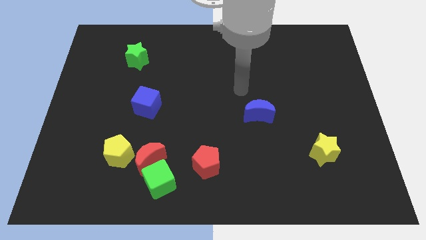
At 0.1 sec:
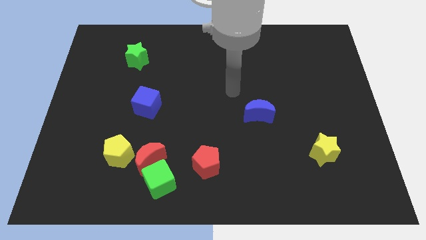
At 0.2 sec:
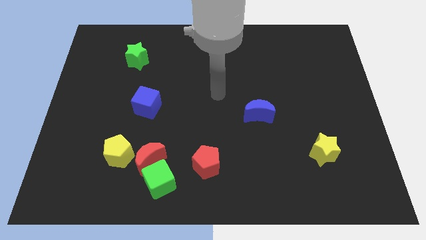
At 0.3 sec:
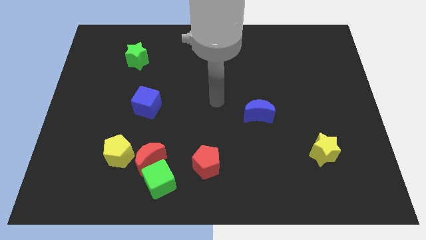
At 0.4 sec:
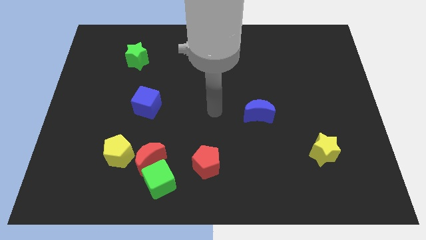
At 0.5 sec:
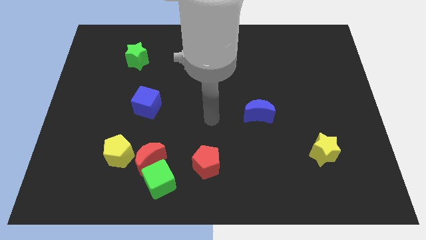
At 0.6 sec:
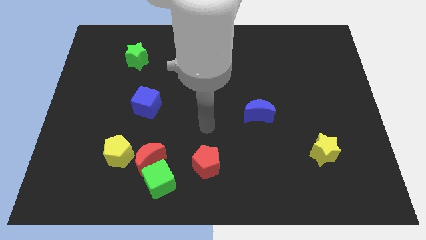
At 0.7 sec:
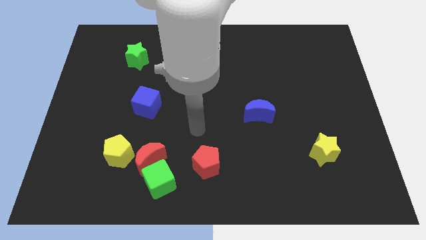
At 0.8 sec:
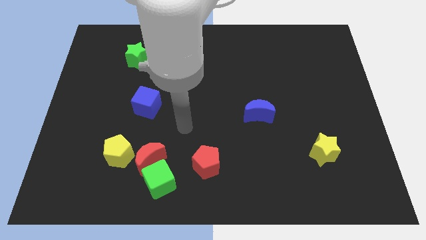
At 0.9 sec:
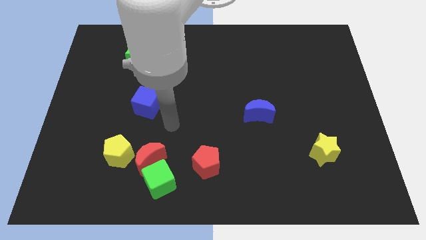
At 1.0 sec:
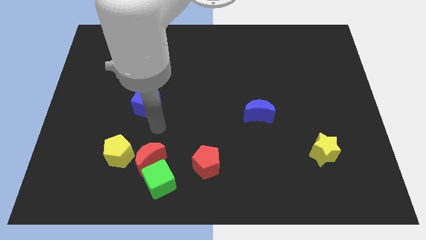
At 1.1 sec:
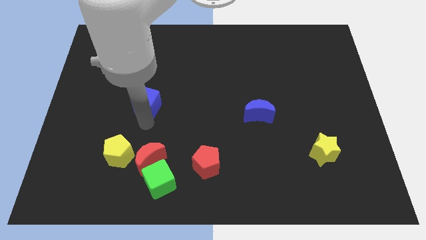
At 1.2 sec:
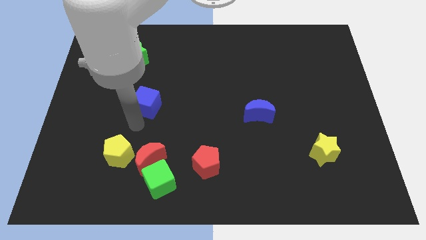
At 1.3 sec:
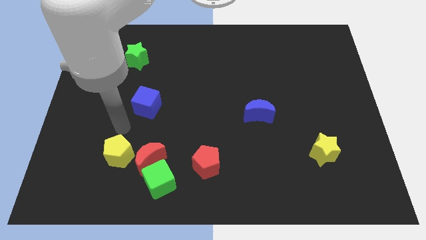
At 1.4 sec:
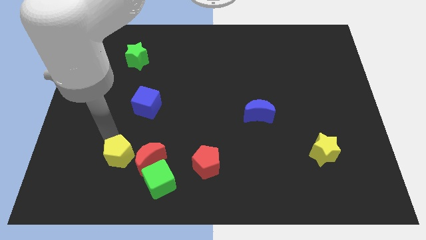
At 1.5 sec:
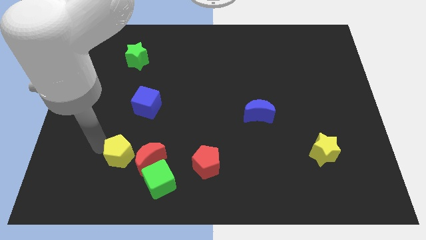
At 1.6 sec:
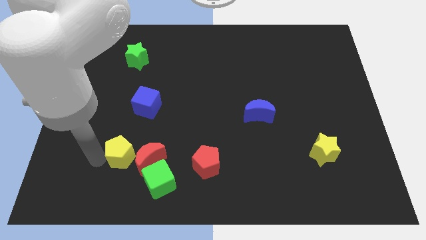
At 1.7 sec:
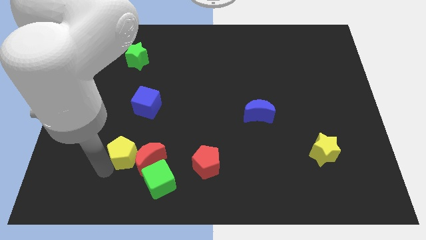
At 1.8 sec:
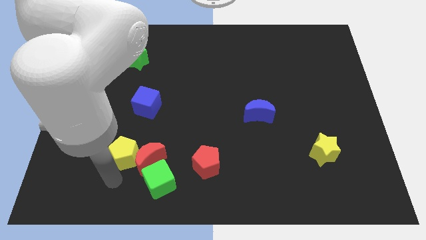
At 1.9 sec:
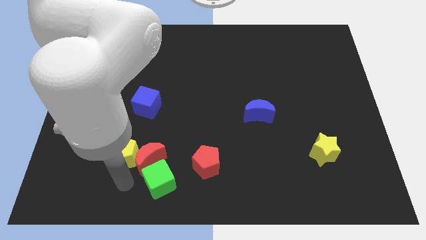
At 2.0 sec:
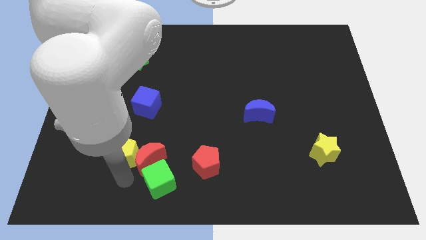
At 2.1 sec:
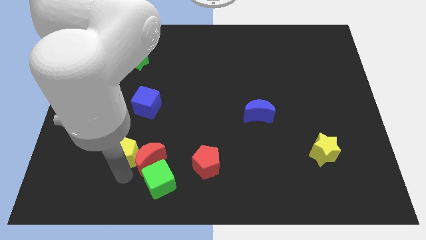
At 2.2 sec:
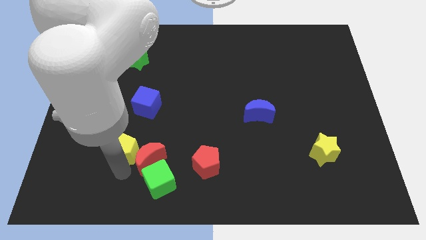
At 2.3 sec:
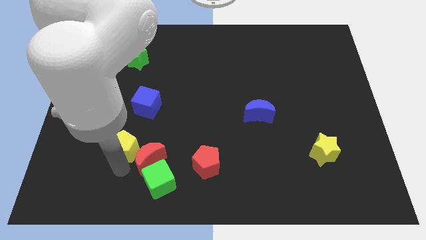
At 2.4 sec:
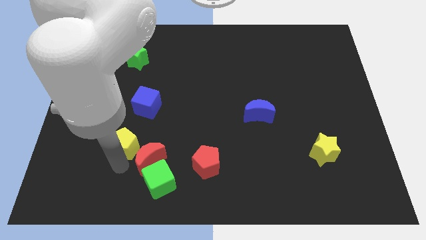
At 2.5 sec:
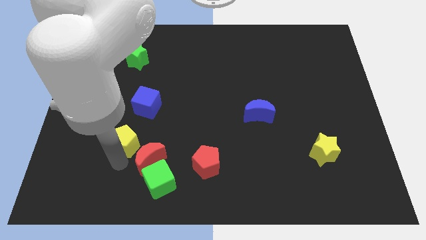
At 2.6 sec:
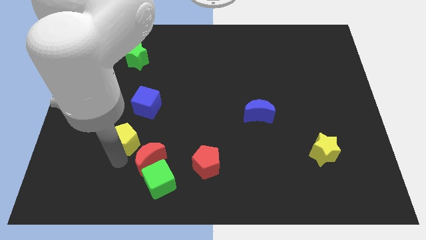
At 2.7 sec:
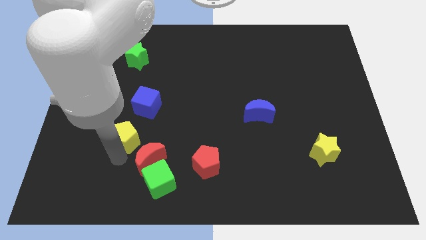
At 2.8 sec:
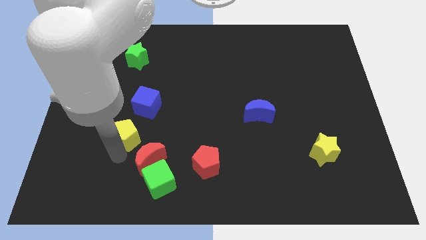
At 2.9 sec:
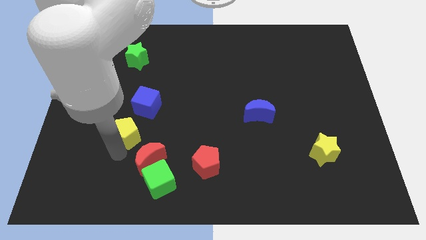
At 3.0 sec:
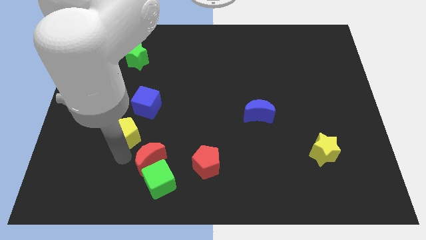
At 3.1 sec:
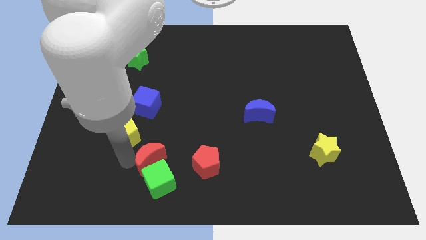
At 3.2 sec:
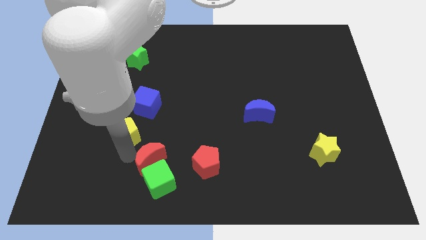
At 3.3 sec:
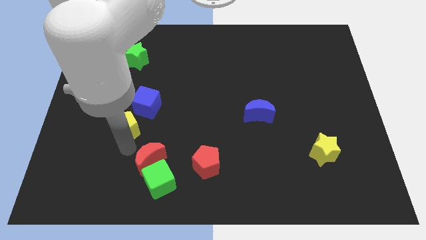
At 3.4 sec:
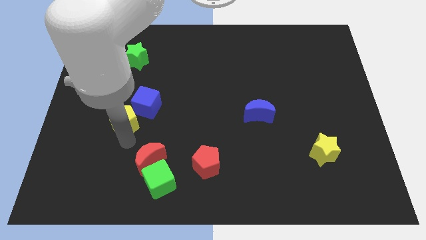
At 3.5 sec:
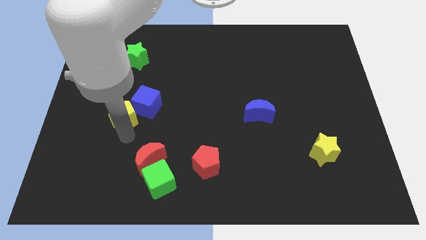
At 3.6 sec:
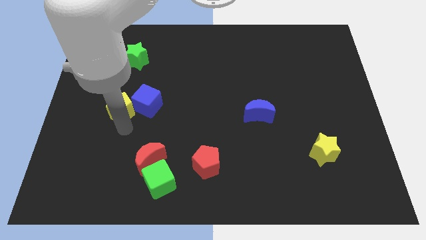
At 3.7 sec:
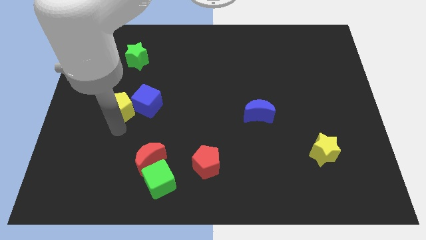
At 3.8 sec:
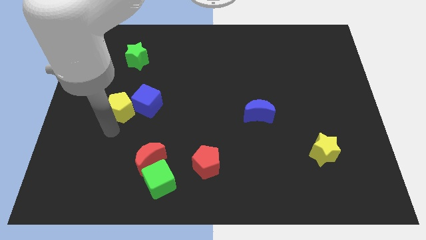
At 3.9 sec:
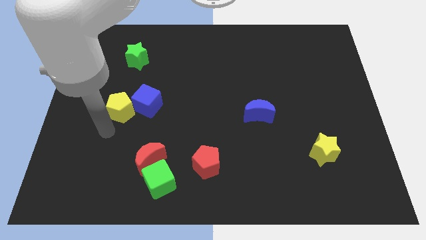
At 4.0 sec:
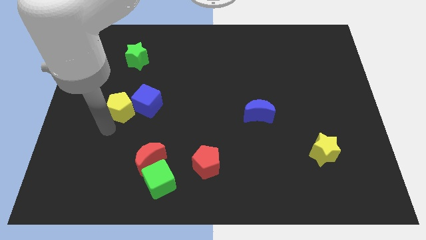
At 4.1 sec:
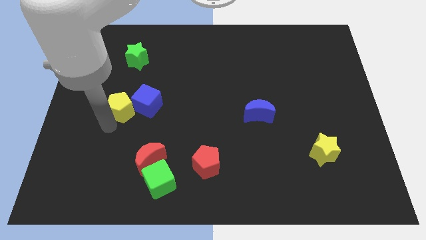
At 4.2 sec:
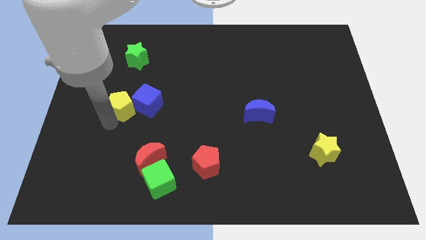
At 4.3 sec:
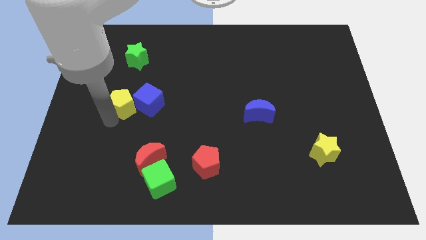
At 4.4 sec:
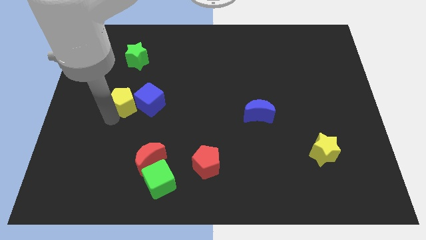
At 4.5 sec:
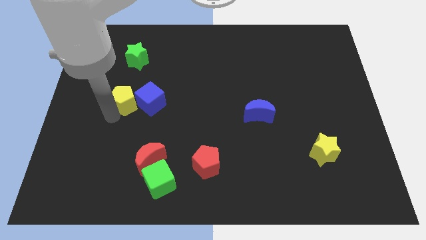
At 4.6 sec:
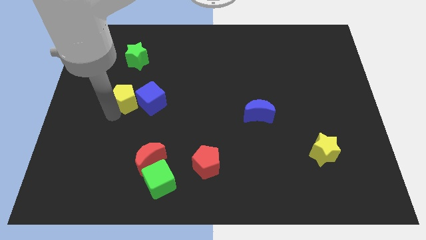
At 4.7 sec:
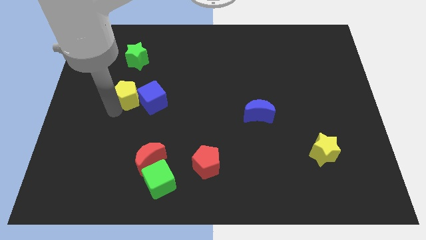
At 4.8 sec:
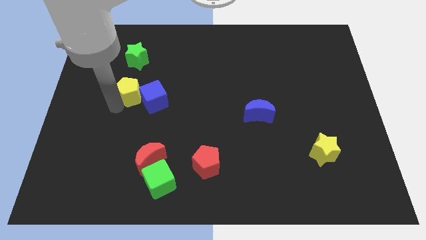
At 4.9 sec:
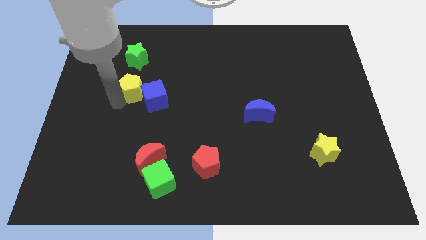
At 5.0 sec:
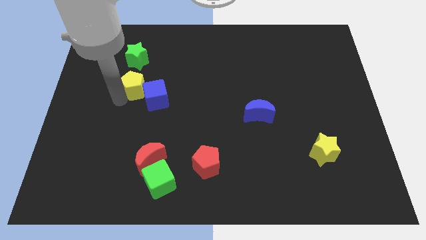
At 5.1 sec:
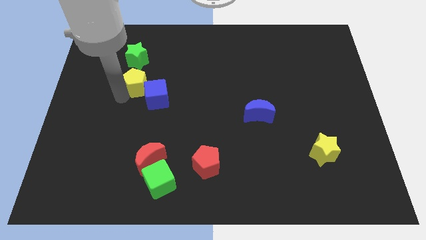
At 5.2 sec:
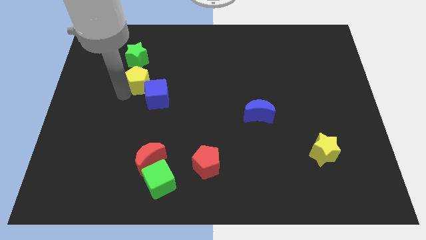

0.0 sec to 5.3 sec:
put the yellow pentagon above the blue cube

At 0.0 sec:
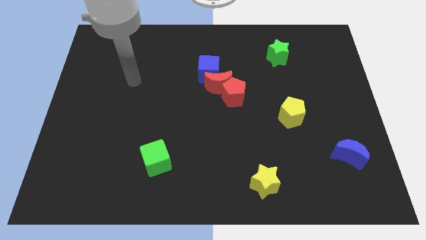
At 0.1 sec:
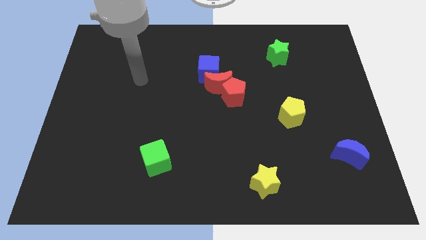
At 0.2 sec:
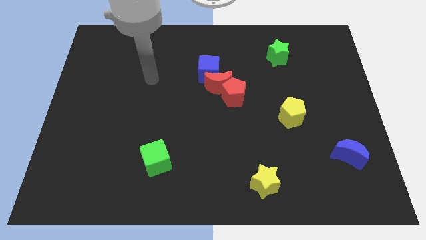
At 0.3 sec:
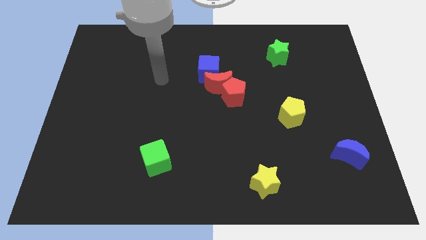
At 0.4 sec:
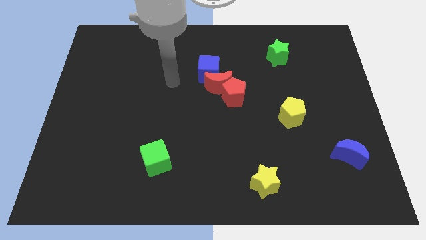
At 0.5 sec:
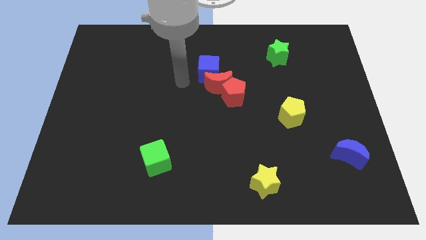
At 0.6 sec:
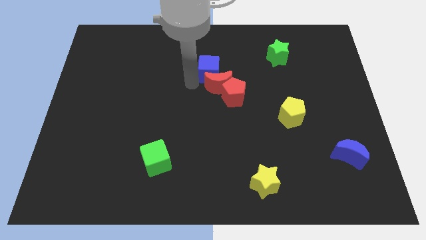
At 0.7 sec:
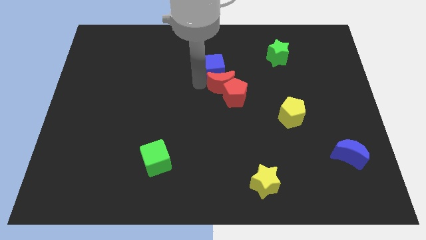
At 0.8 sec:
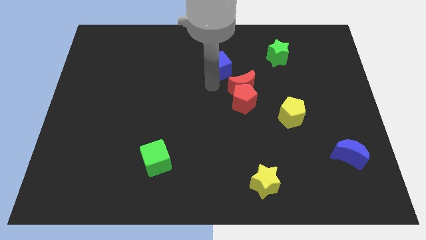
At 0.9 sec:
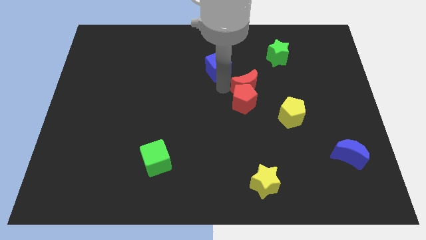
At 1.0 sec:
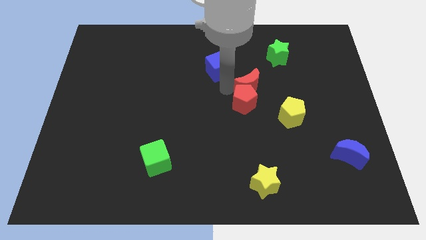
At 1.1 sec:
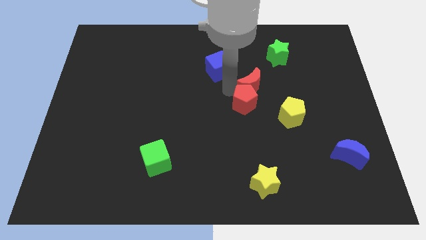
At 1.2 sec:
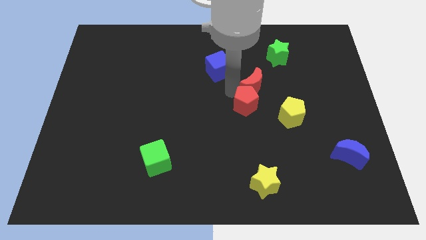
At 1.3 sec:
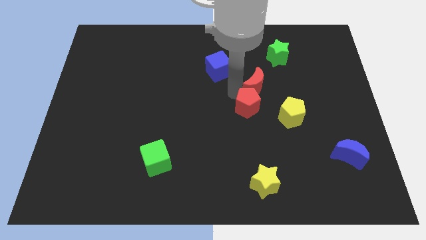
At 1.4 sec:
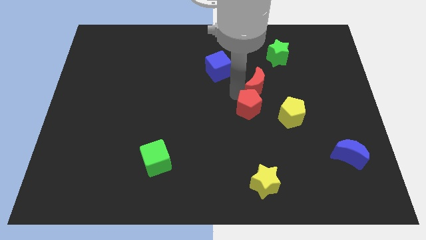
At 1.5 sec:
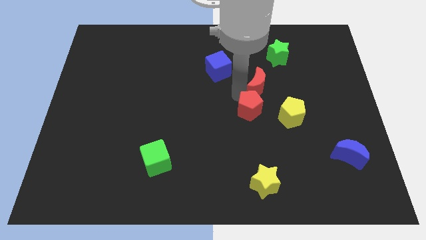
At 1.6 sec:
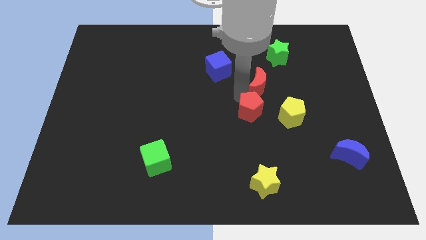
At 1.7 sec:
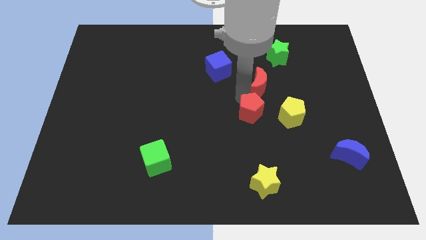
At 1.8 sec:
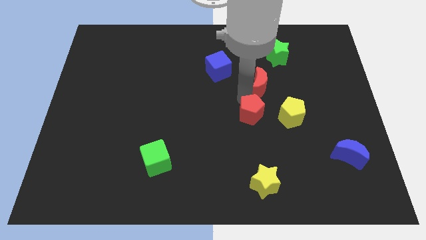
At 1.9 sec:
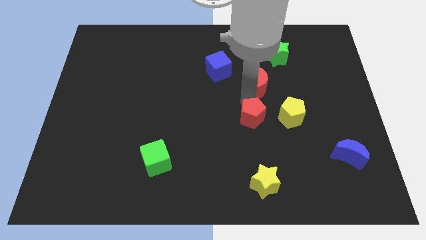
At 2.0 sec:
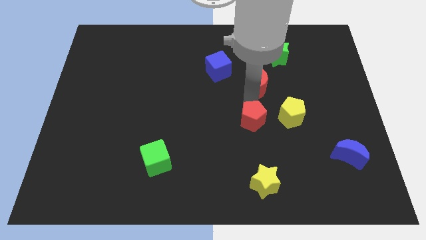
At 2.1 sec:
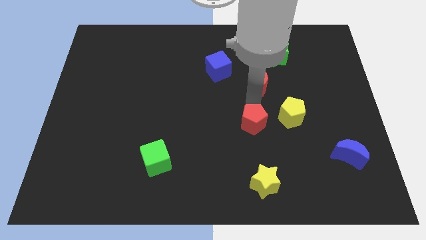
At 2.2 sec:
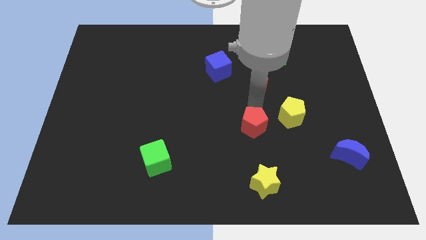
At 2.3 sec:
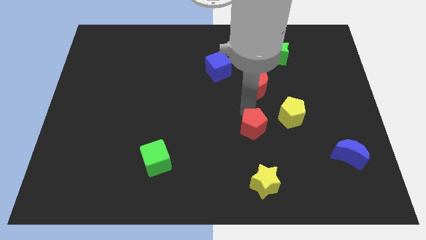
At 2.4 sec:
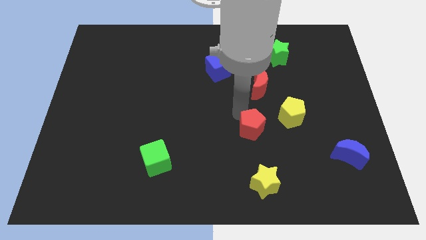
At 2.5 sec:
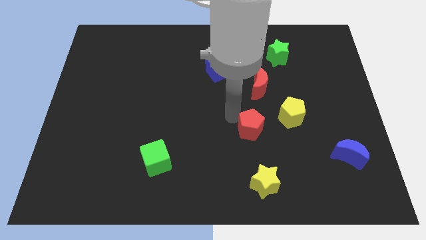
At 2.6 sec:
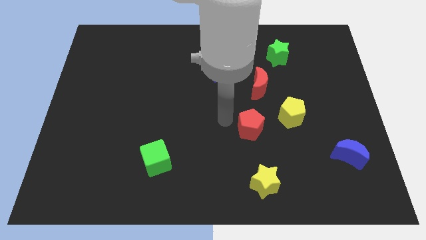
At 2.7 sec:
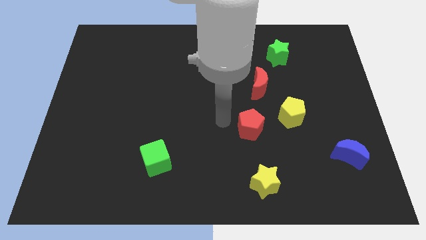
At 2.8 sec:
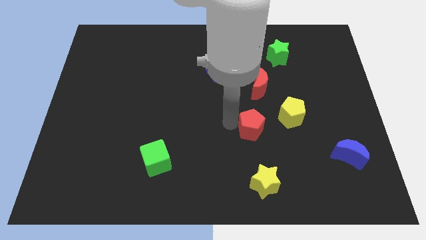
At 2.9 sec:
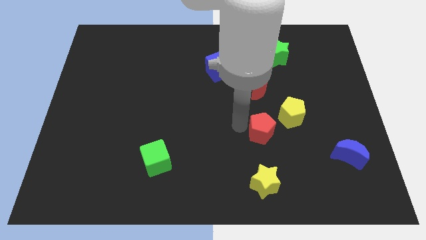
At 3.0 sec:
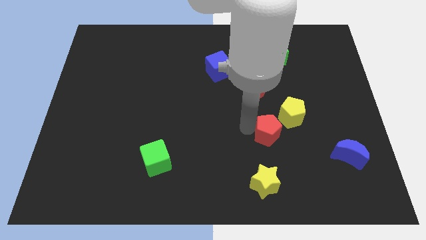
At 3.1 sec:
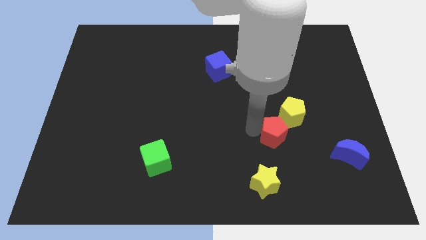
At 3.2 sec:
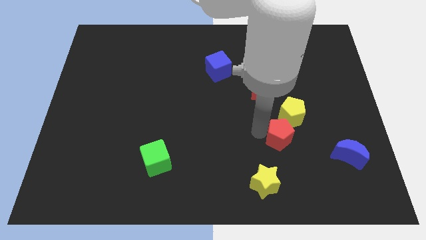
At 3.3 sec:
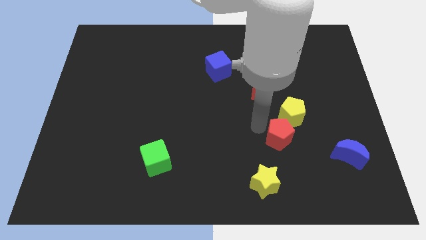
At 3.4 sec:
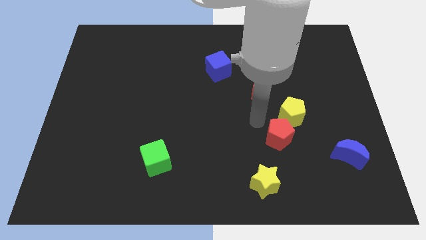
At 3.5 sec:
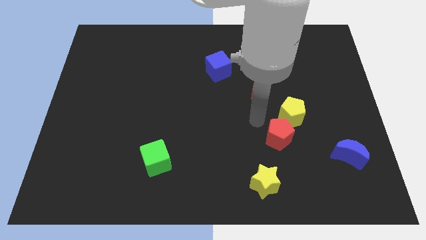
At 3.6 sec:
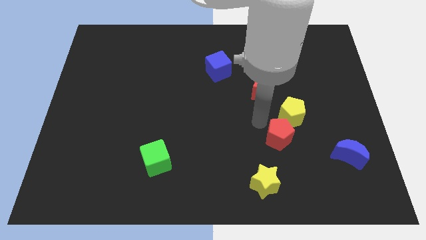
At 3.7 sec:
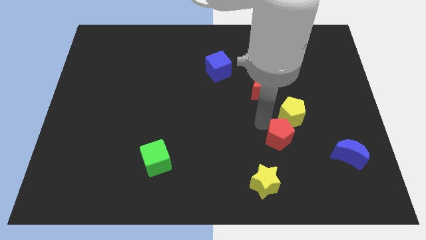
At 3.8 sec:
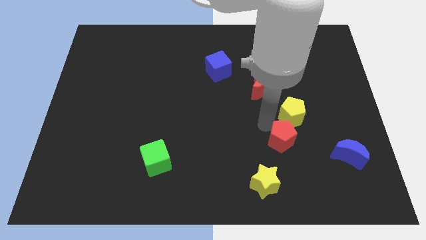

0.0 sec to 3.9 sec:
slide the red pentagon to the left side of the blue moon
